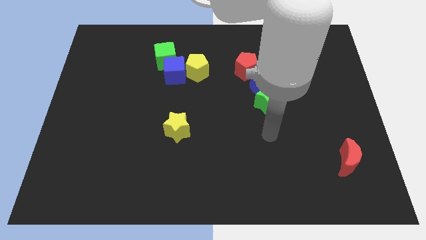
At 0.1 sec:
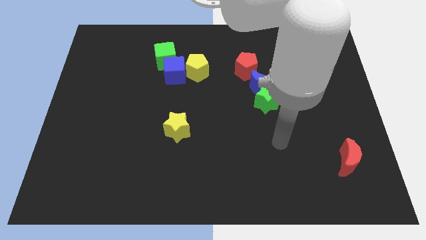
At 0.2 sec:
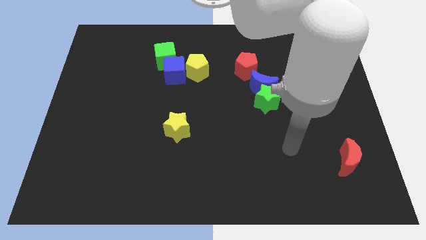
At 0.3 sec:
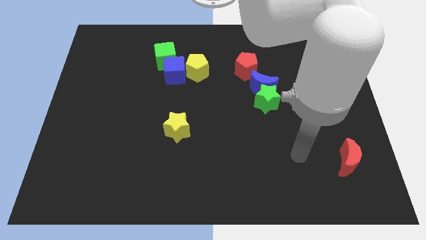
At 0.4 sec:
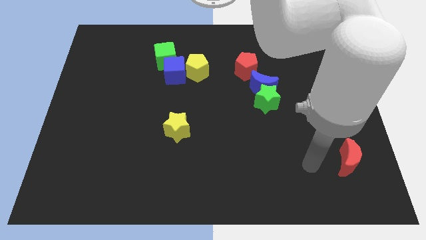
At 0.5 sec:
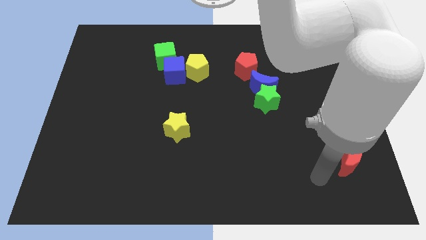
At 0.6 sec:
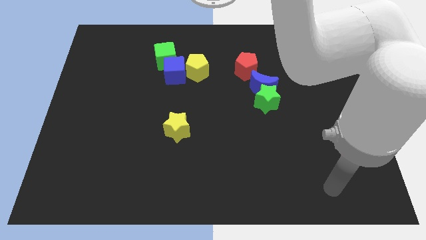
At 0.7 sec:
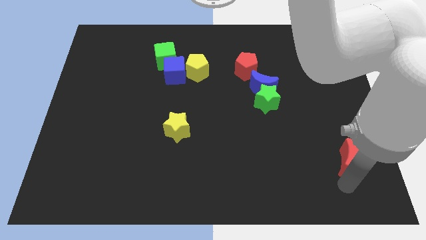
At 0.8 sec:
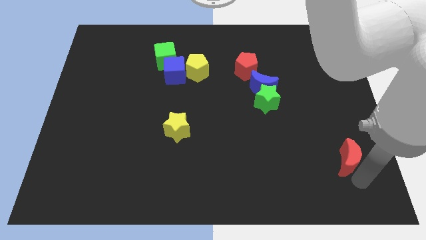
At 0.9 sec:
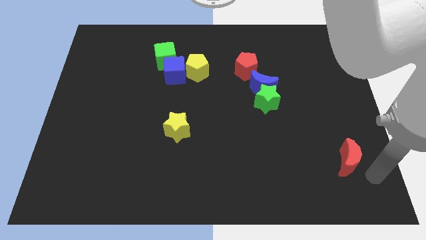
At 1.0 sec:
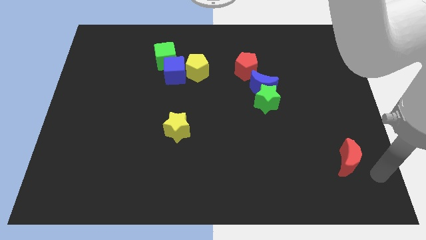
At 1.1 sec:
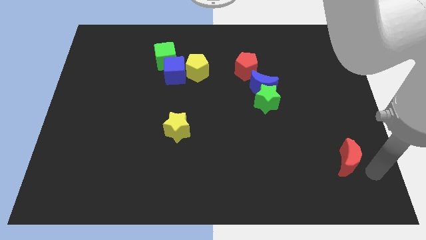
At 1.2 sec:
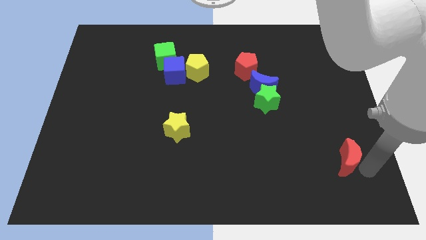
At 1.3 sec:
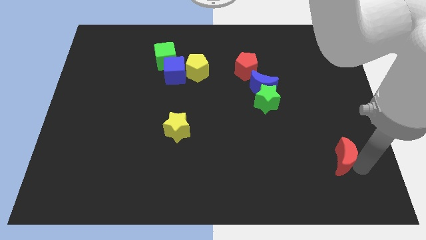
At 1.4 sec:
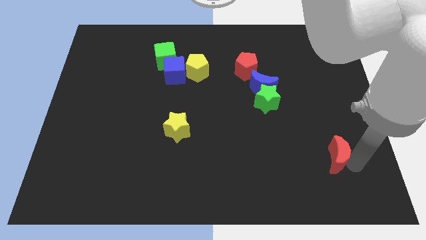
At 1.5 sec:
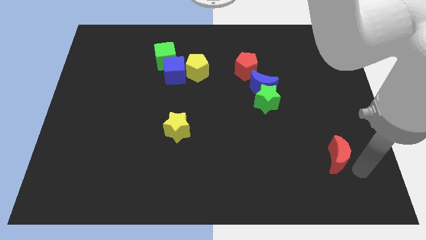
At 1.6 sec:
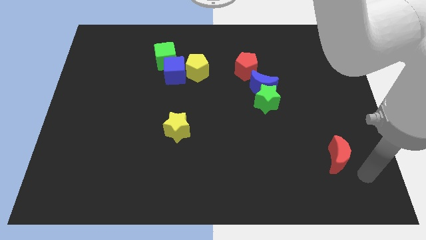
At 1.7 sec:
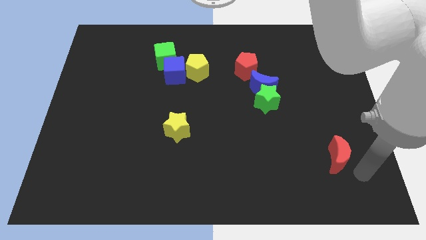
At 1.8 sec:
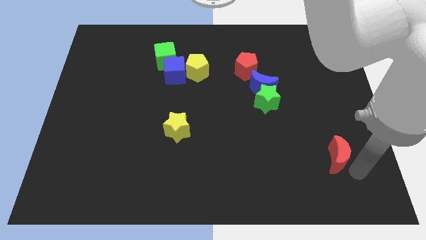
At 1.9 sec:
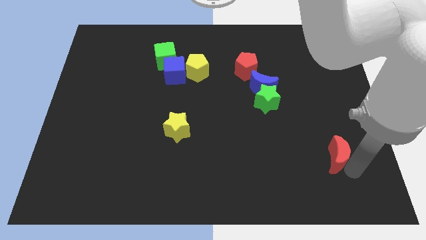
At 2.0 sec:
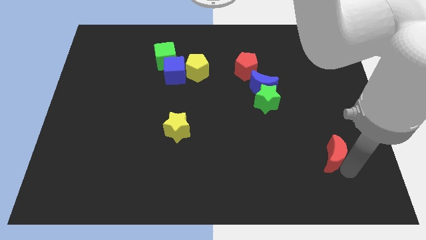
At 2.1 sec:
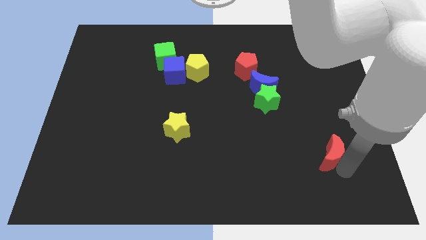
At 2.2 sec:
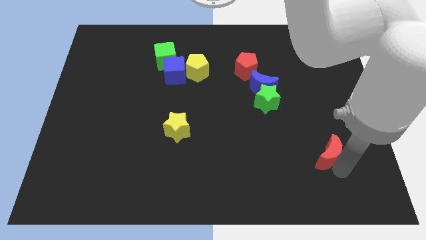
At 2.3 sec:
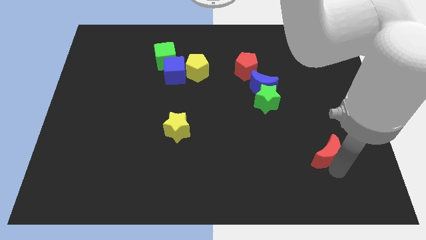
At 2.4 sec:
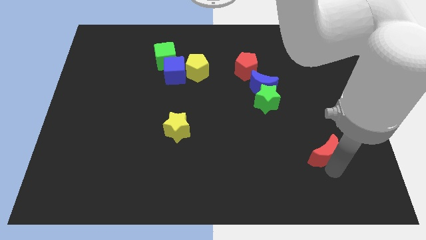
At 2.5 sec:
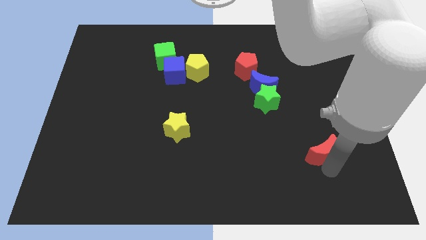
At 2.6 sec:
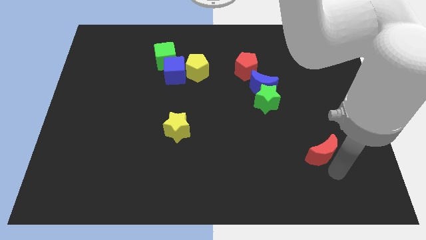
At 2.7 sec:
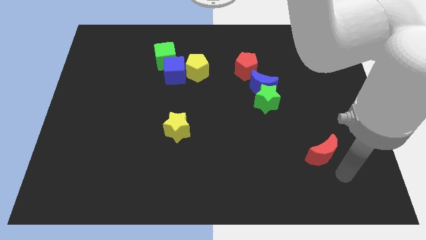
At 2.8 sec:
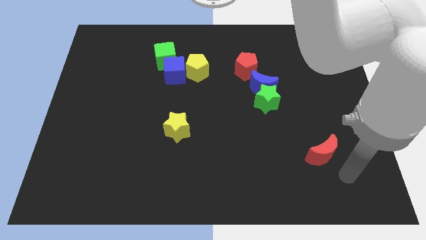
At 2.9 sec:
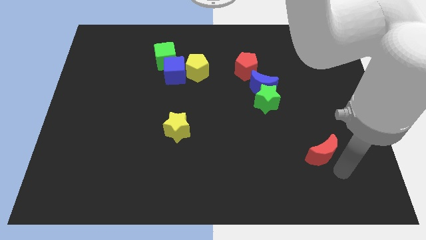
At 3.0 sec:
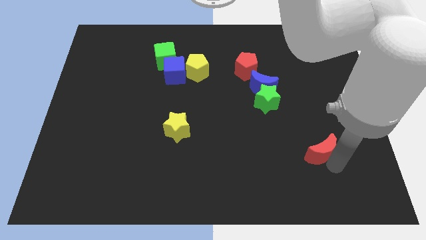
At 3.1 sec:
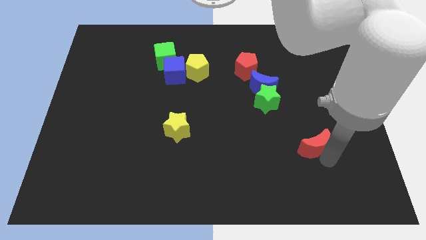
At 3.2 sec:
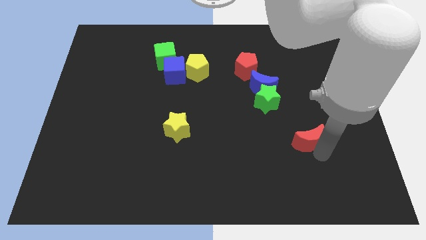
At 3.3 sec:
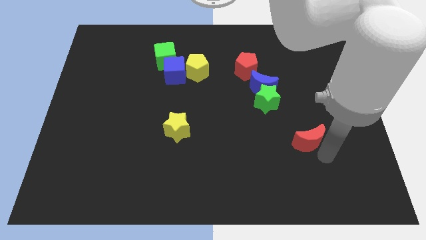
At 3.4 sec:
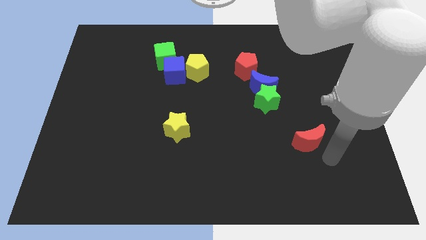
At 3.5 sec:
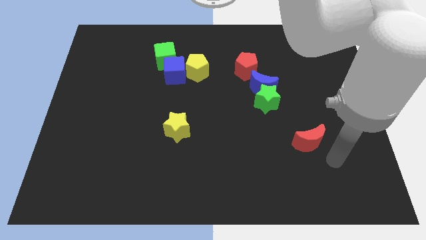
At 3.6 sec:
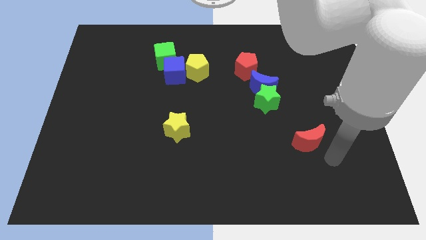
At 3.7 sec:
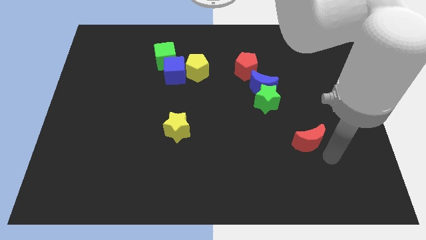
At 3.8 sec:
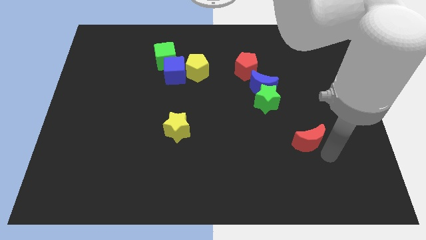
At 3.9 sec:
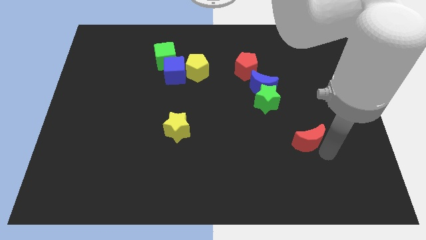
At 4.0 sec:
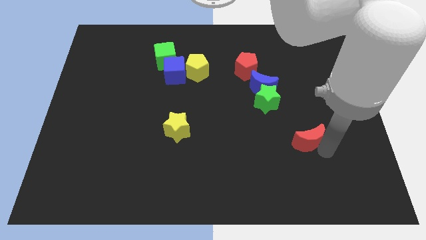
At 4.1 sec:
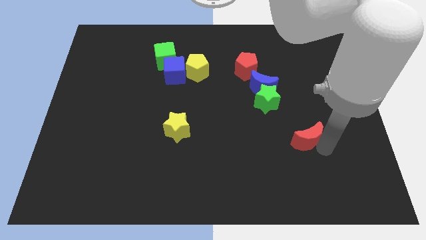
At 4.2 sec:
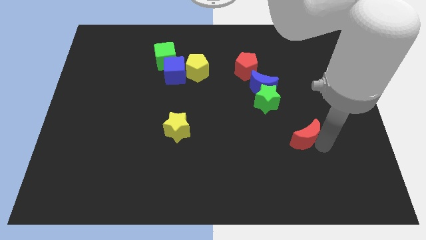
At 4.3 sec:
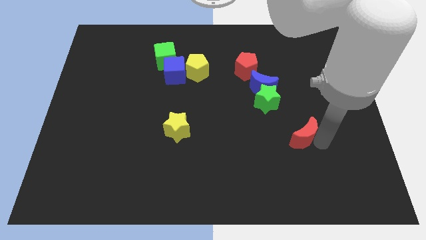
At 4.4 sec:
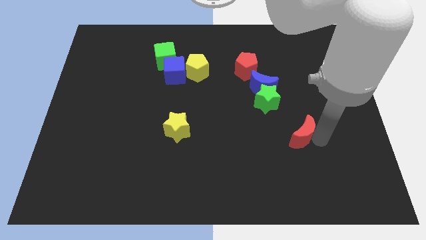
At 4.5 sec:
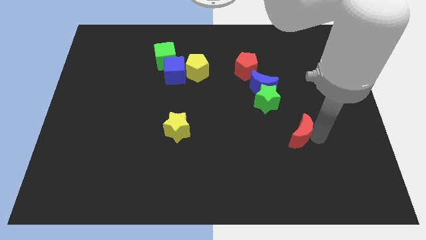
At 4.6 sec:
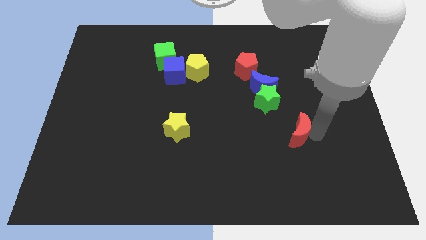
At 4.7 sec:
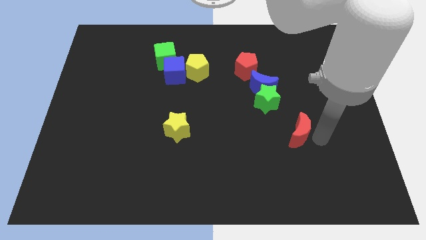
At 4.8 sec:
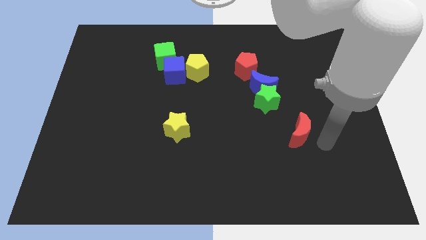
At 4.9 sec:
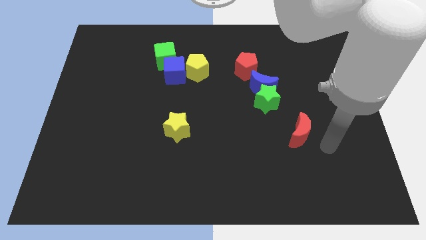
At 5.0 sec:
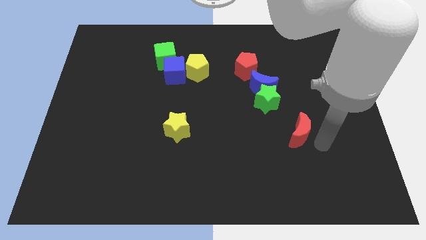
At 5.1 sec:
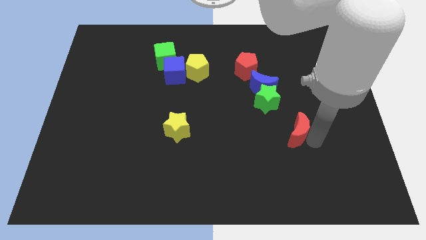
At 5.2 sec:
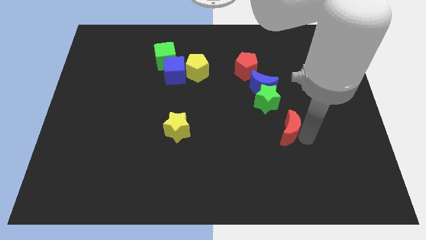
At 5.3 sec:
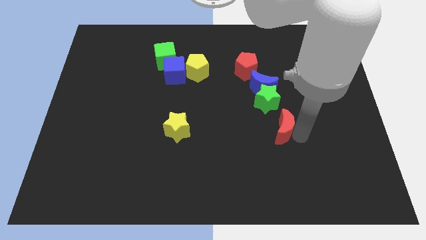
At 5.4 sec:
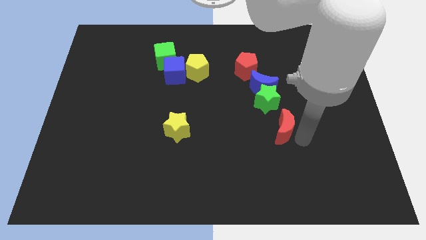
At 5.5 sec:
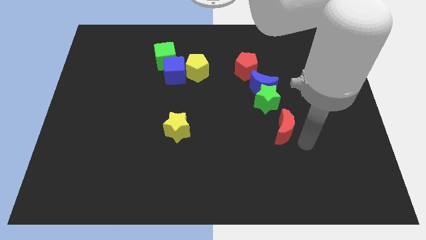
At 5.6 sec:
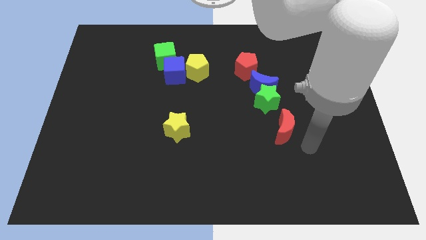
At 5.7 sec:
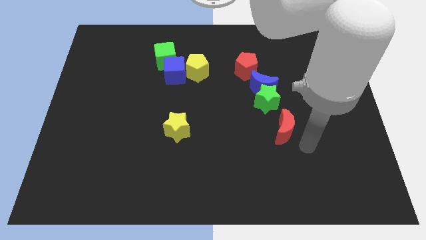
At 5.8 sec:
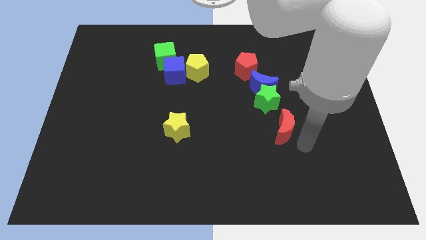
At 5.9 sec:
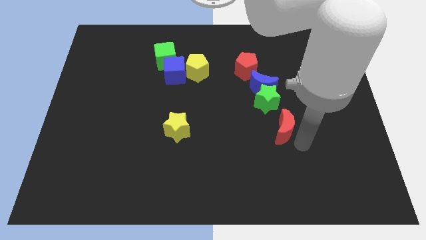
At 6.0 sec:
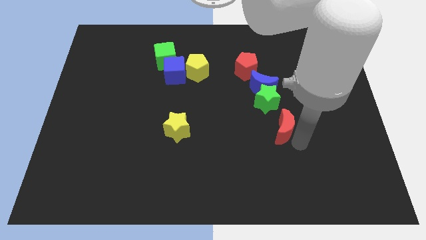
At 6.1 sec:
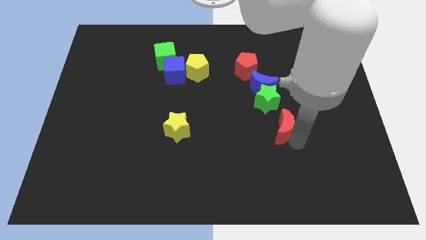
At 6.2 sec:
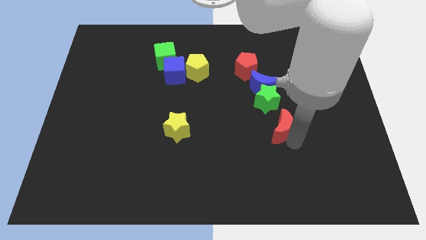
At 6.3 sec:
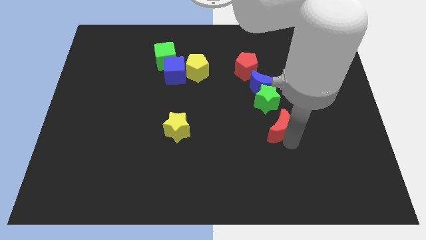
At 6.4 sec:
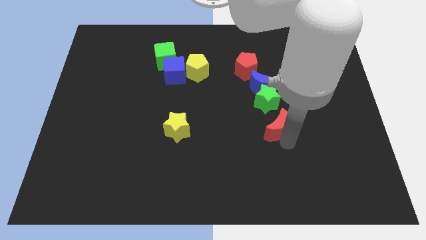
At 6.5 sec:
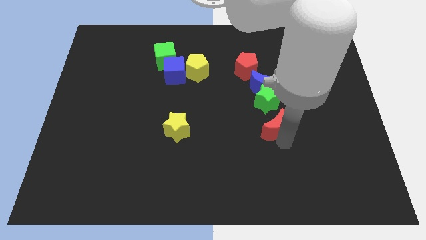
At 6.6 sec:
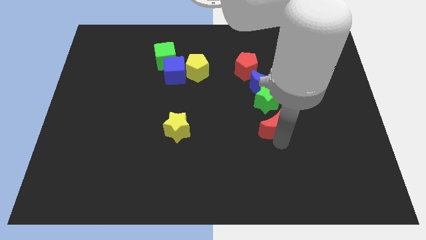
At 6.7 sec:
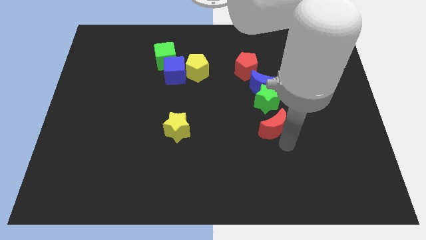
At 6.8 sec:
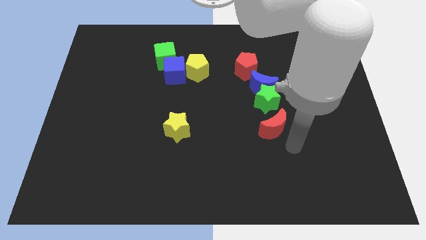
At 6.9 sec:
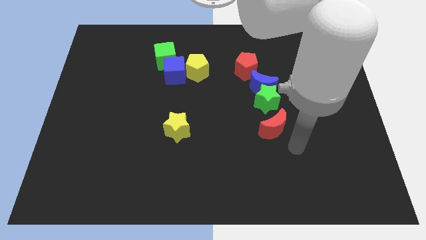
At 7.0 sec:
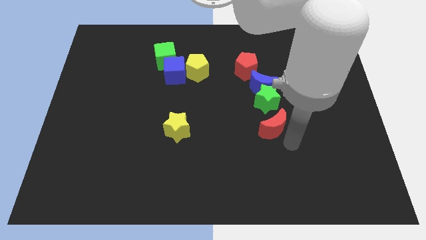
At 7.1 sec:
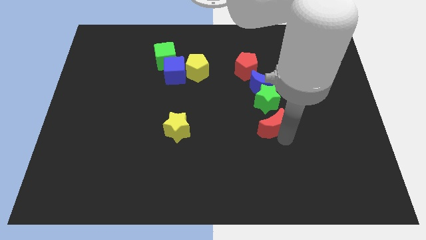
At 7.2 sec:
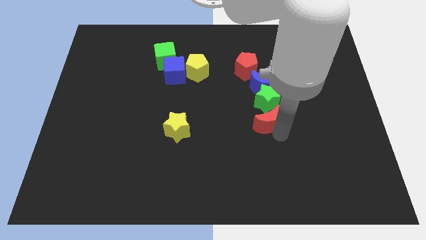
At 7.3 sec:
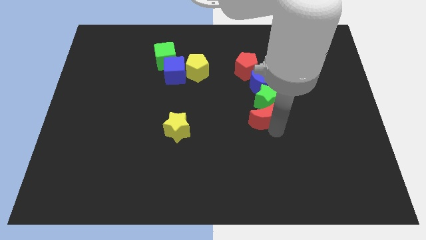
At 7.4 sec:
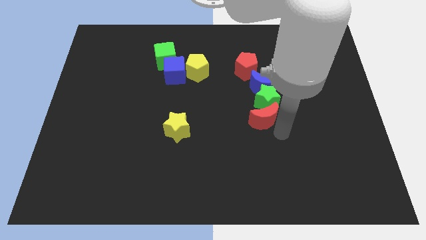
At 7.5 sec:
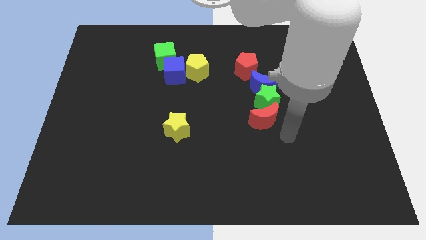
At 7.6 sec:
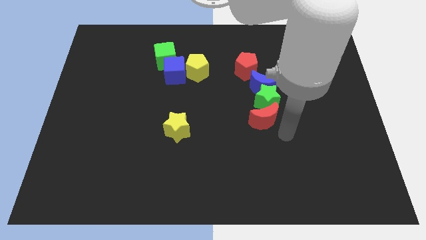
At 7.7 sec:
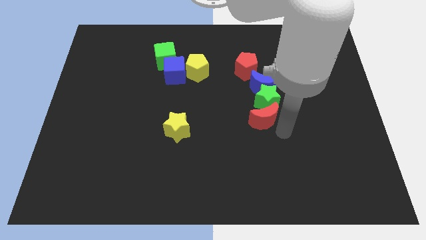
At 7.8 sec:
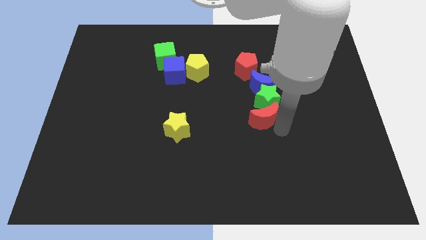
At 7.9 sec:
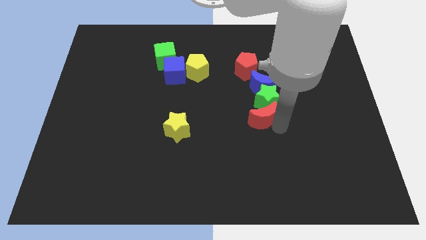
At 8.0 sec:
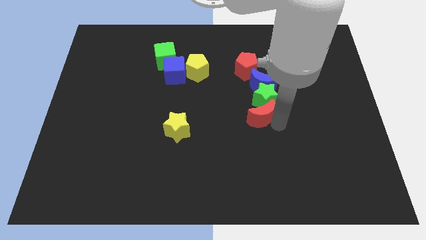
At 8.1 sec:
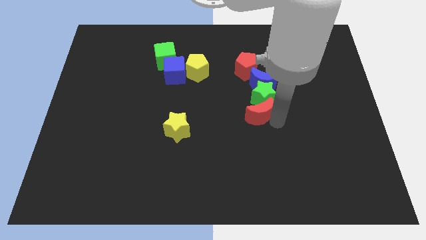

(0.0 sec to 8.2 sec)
move the red moon upwards and to the left
